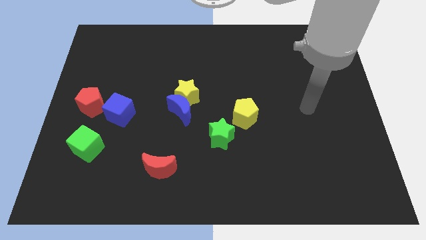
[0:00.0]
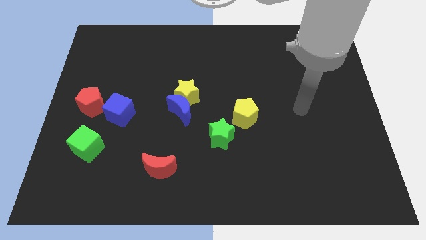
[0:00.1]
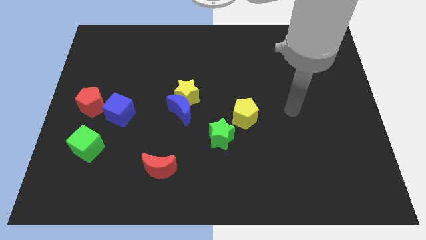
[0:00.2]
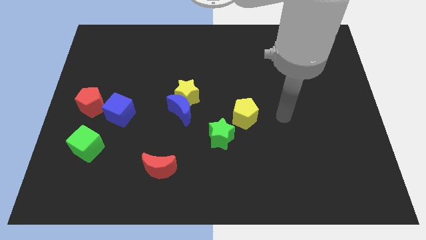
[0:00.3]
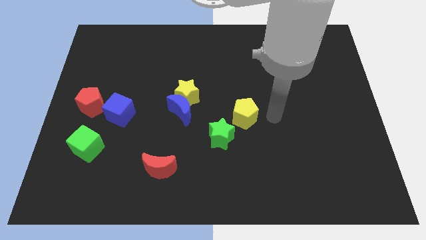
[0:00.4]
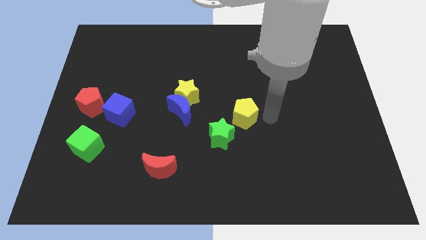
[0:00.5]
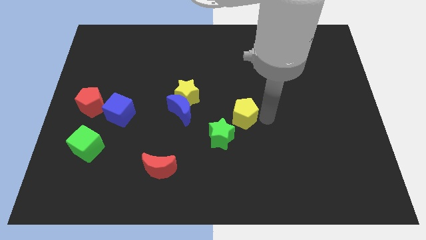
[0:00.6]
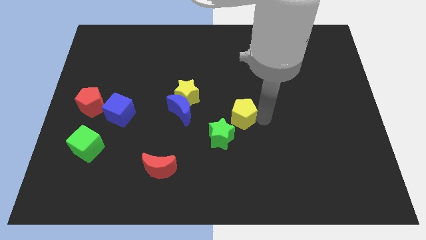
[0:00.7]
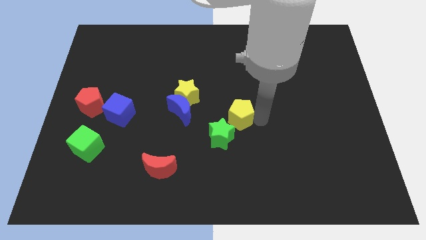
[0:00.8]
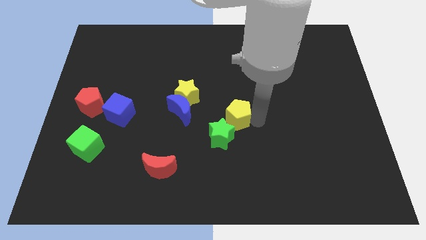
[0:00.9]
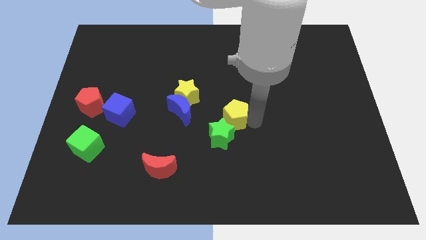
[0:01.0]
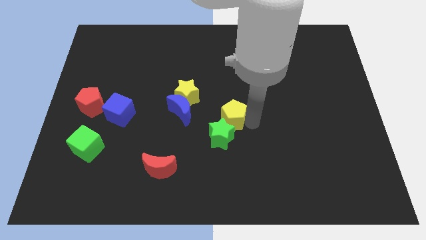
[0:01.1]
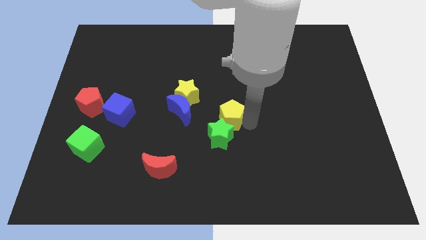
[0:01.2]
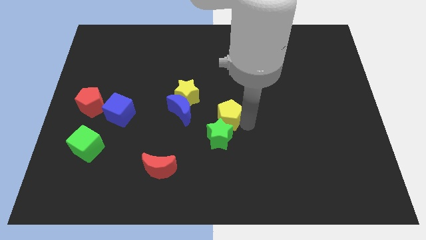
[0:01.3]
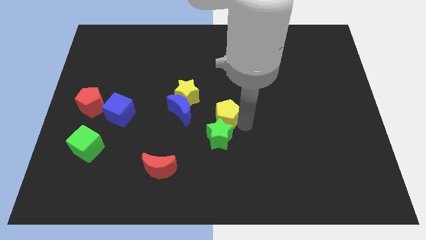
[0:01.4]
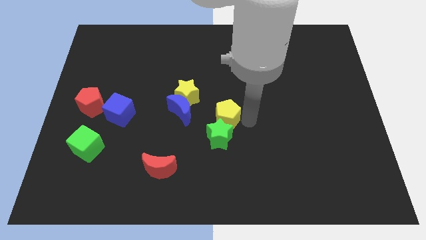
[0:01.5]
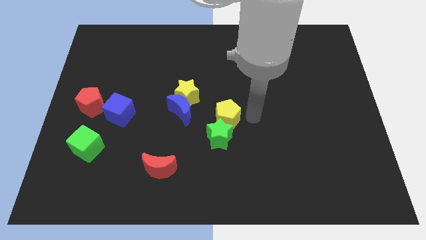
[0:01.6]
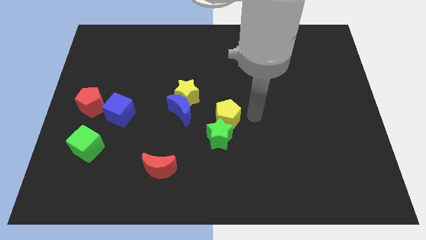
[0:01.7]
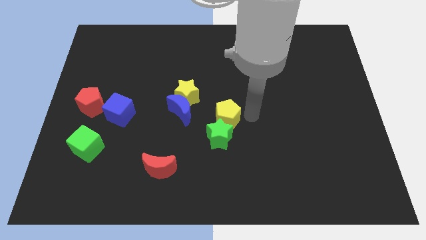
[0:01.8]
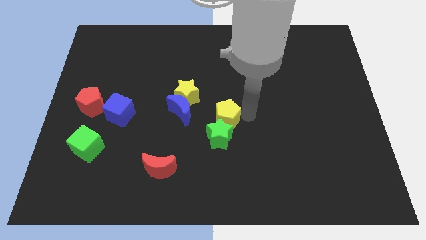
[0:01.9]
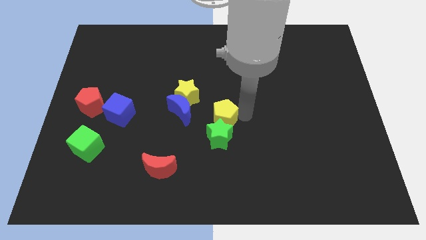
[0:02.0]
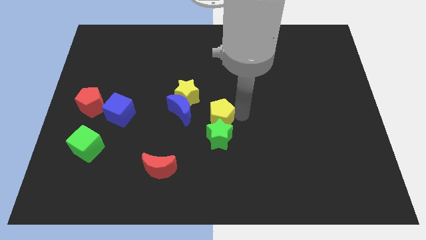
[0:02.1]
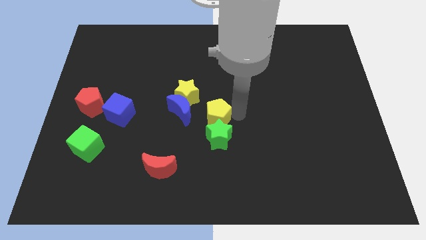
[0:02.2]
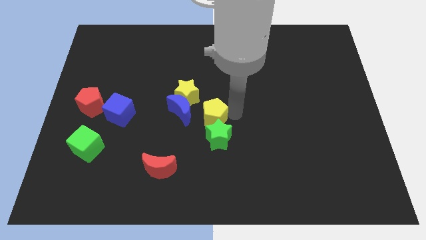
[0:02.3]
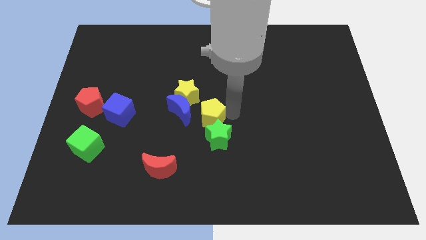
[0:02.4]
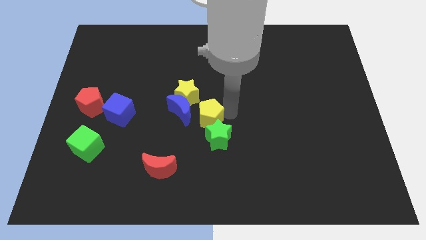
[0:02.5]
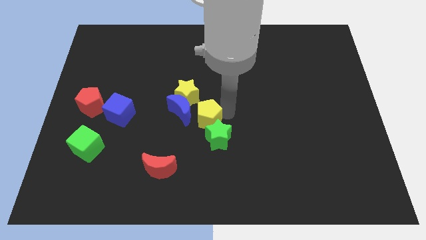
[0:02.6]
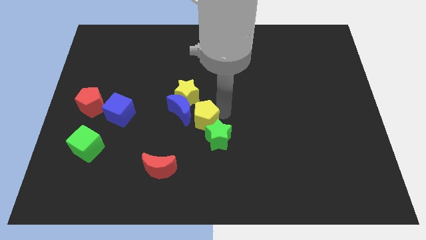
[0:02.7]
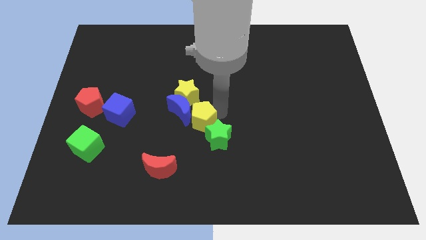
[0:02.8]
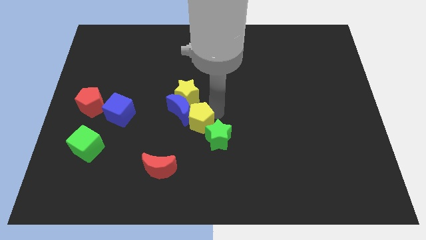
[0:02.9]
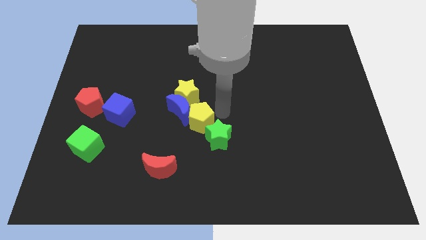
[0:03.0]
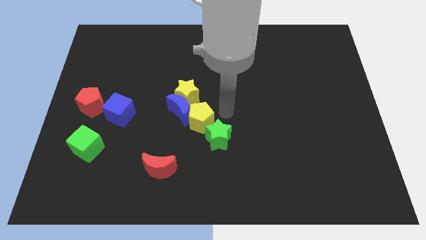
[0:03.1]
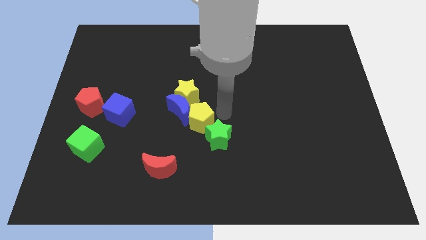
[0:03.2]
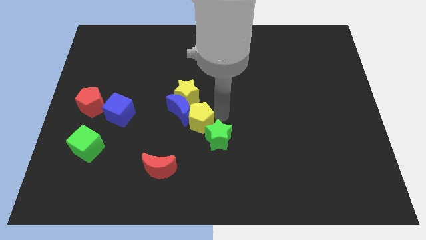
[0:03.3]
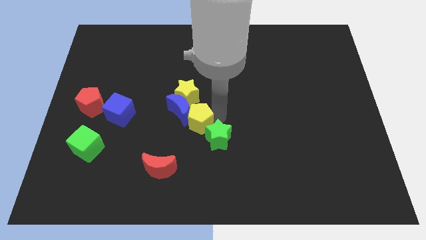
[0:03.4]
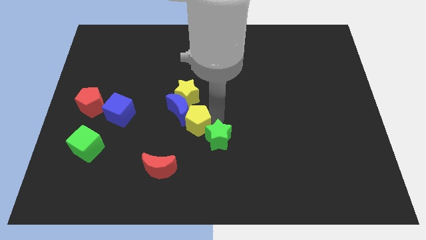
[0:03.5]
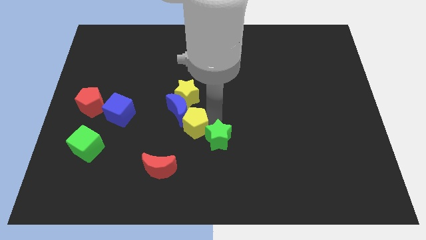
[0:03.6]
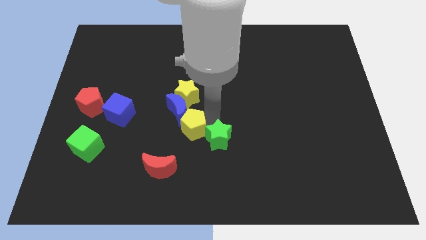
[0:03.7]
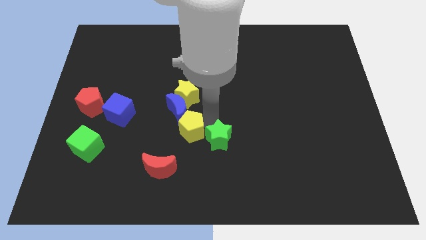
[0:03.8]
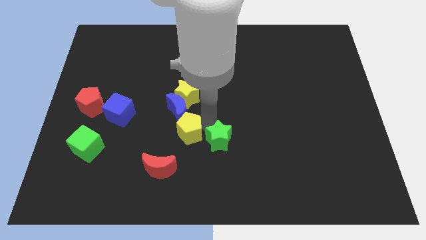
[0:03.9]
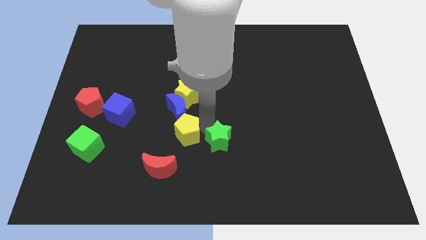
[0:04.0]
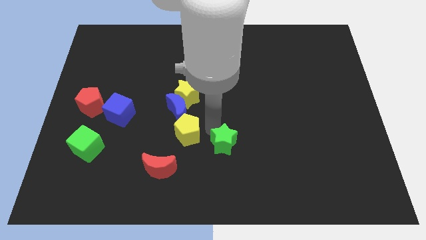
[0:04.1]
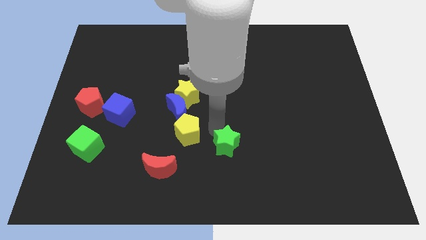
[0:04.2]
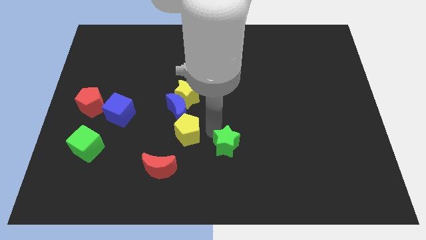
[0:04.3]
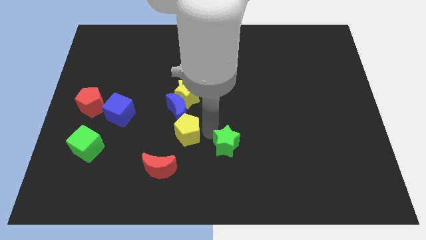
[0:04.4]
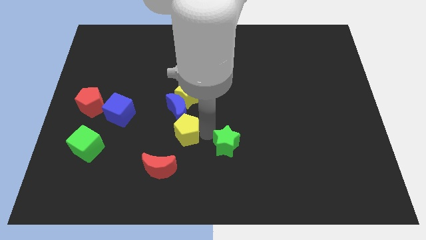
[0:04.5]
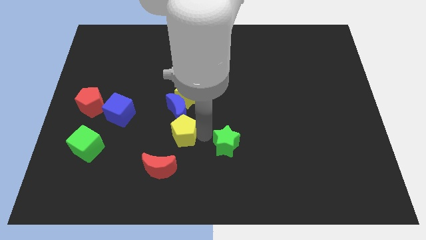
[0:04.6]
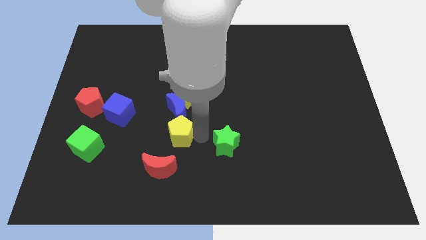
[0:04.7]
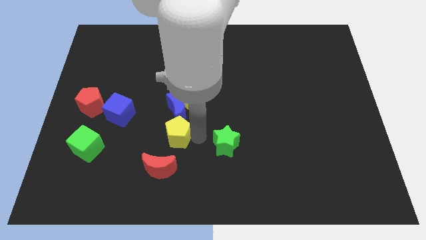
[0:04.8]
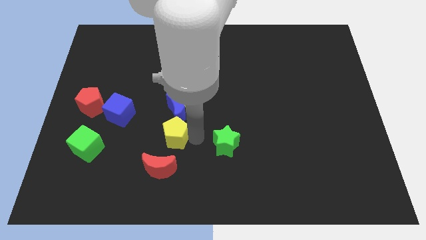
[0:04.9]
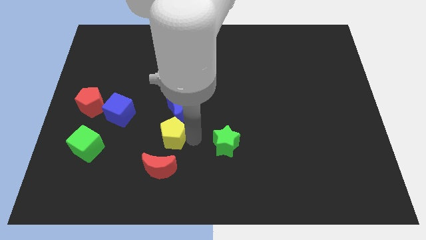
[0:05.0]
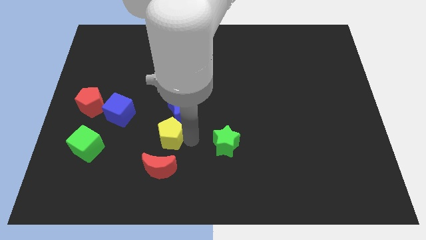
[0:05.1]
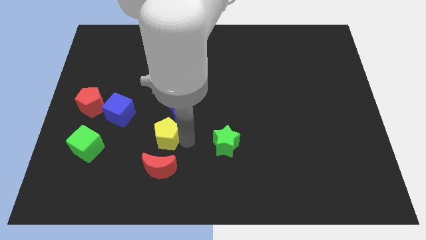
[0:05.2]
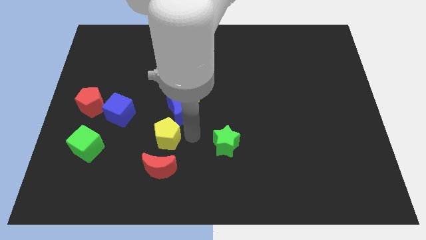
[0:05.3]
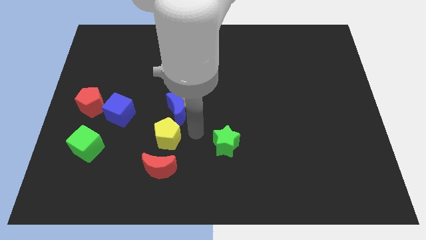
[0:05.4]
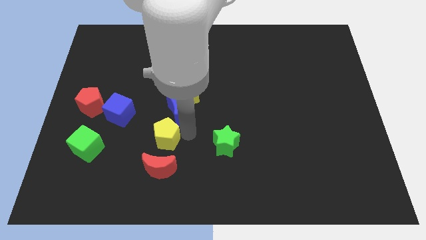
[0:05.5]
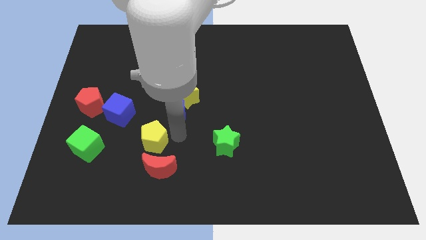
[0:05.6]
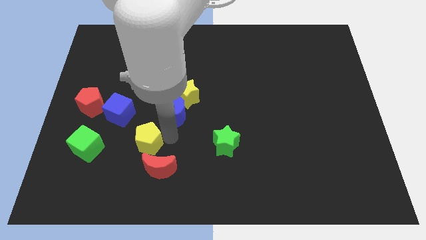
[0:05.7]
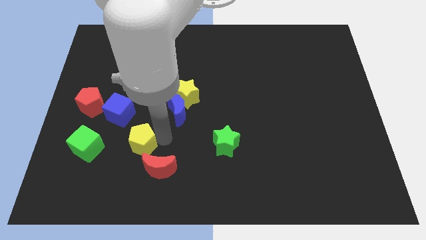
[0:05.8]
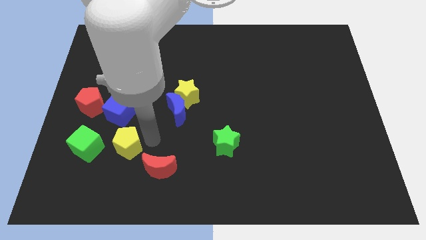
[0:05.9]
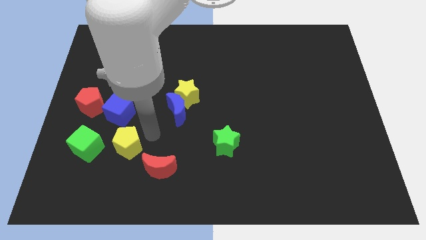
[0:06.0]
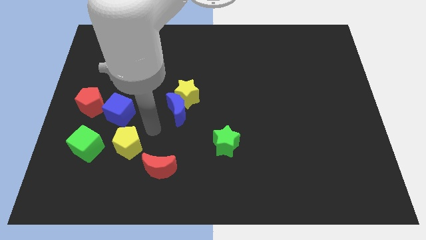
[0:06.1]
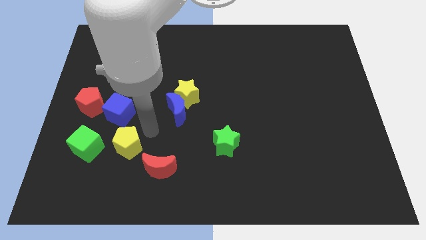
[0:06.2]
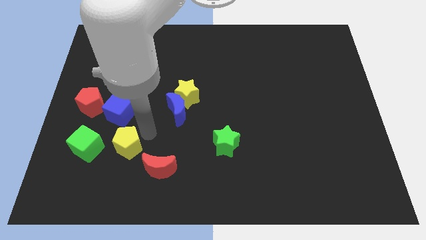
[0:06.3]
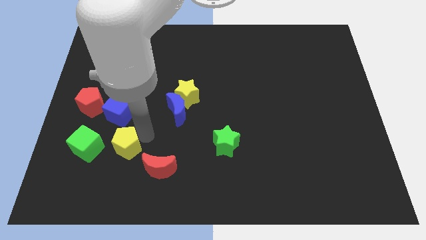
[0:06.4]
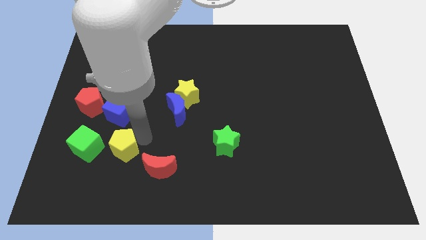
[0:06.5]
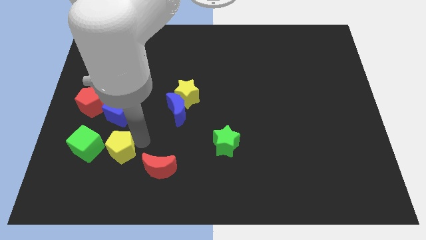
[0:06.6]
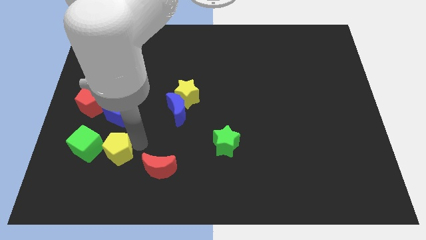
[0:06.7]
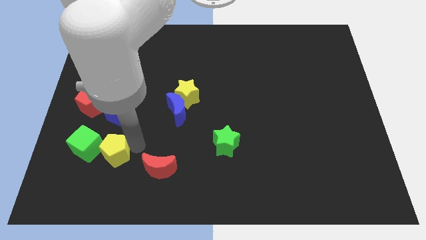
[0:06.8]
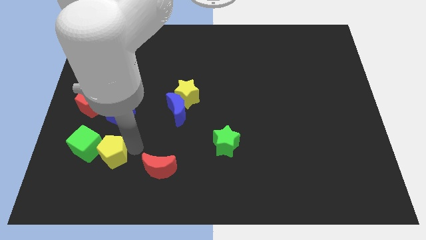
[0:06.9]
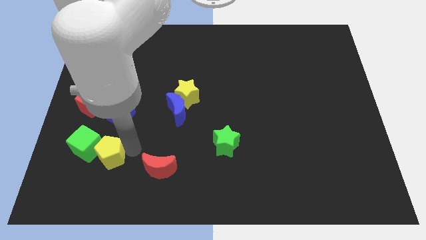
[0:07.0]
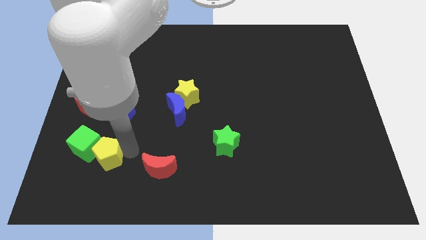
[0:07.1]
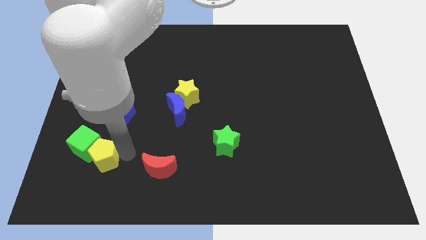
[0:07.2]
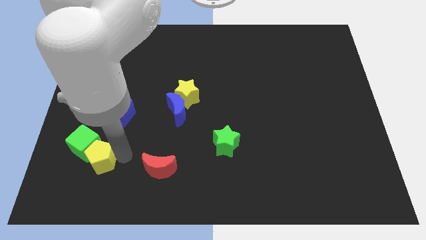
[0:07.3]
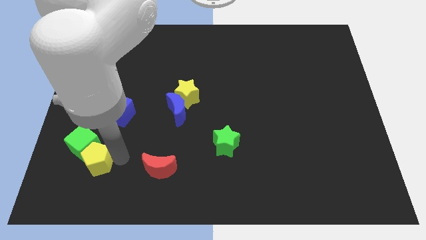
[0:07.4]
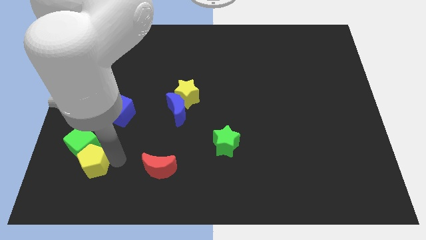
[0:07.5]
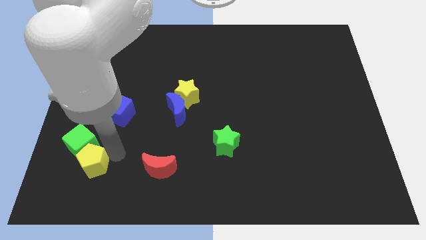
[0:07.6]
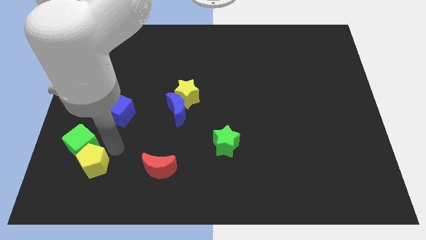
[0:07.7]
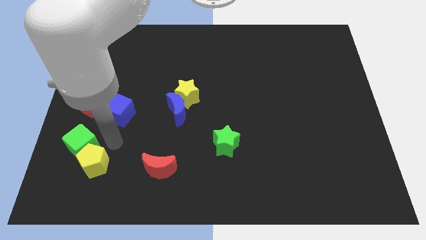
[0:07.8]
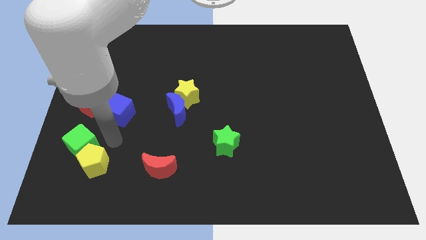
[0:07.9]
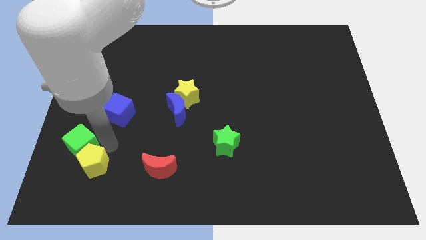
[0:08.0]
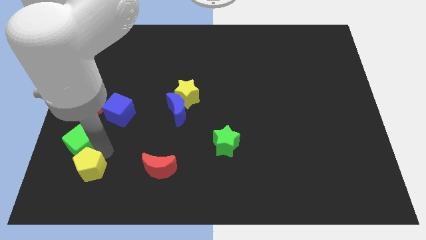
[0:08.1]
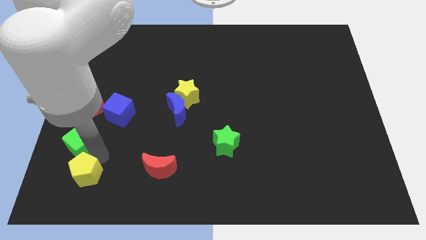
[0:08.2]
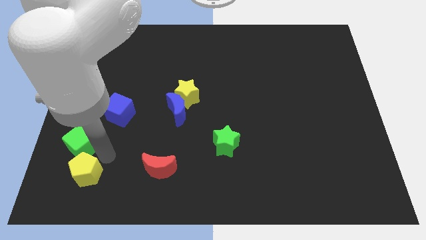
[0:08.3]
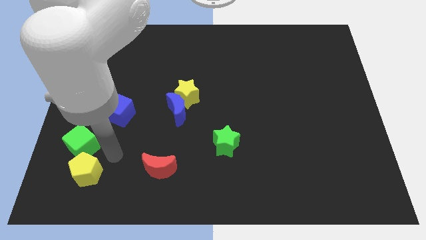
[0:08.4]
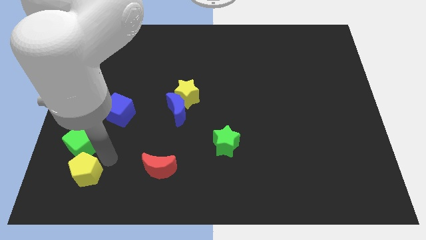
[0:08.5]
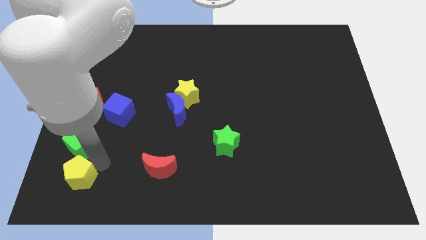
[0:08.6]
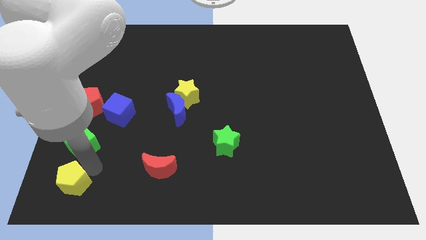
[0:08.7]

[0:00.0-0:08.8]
push the yellow pentagon to the bottom left
